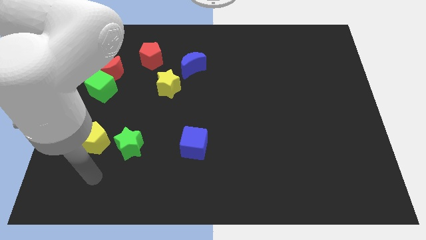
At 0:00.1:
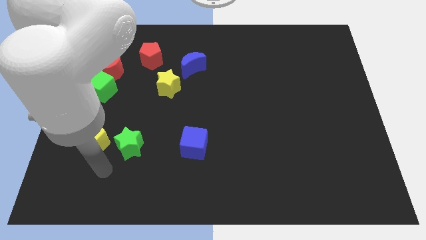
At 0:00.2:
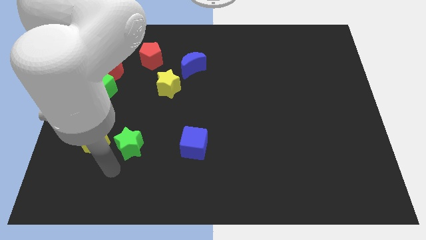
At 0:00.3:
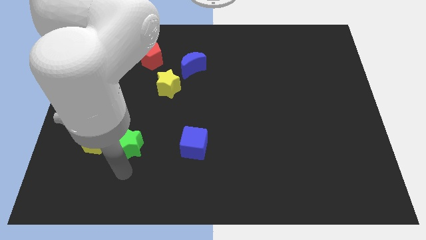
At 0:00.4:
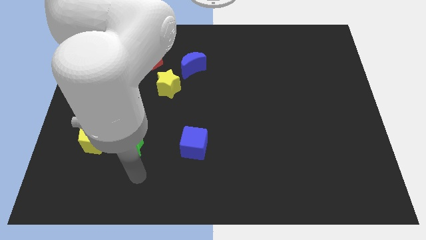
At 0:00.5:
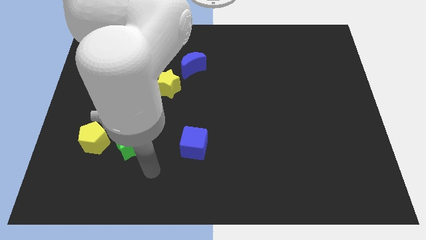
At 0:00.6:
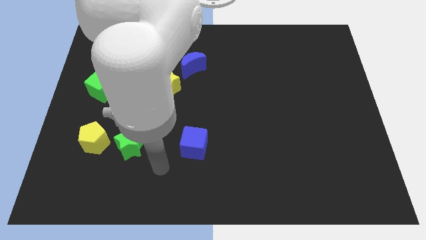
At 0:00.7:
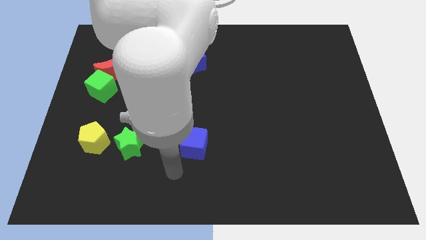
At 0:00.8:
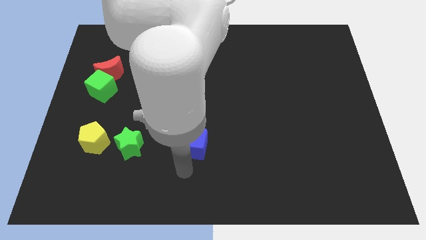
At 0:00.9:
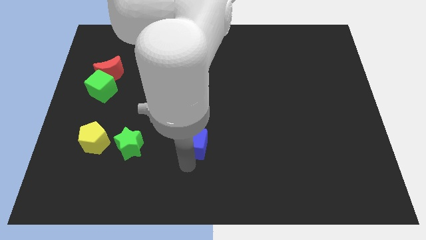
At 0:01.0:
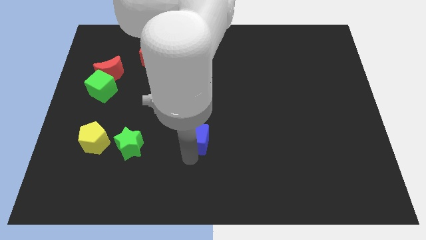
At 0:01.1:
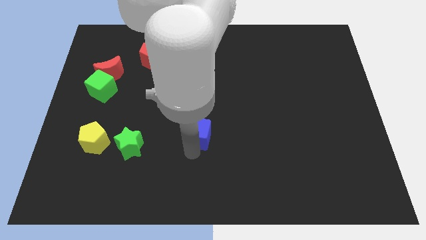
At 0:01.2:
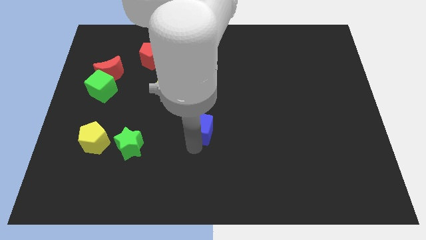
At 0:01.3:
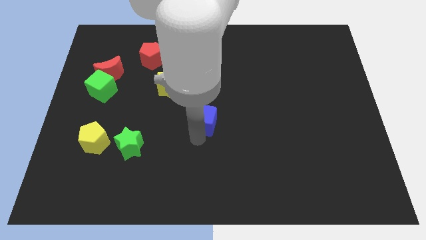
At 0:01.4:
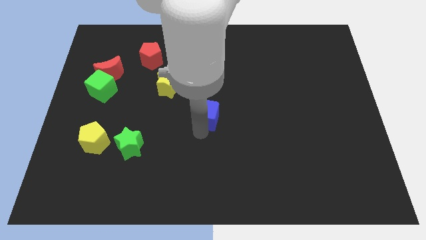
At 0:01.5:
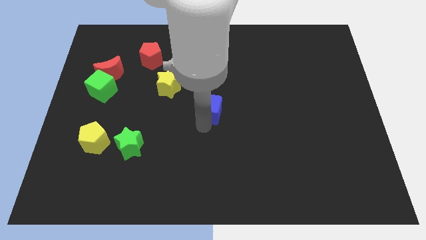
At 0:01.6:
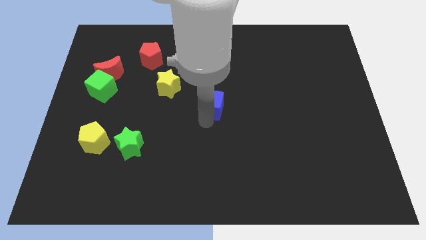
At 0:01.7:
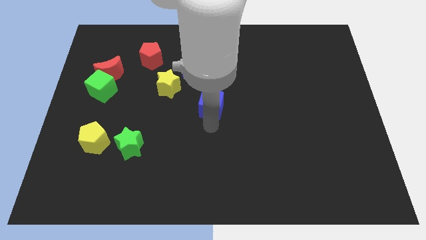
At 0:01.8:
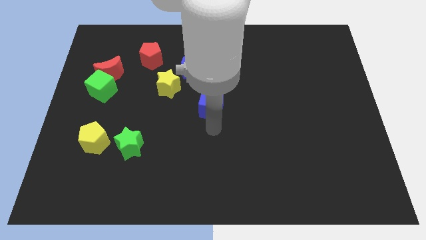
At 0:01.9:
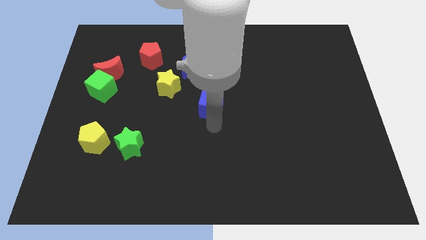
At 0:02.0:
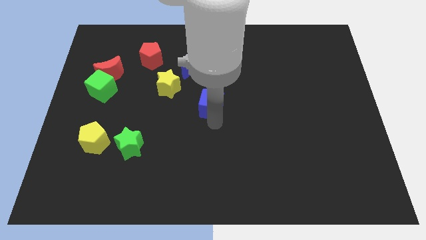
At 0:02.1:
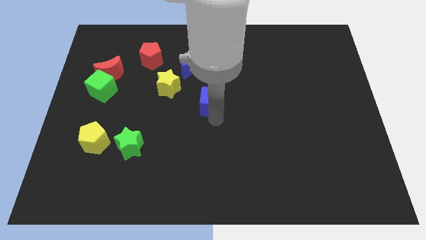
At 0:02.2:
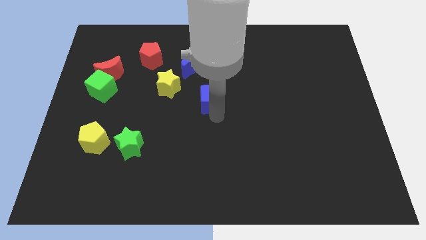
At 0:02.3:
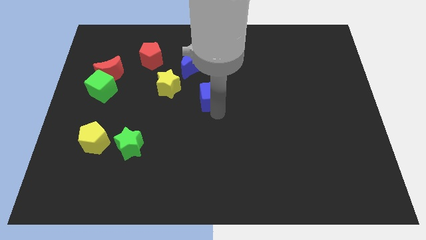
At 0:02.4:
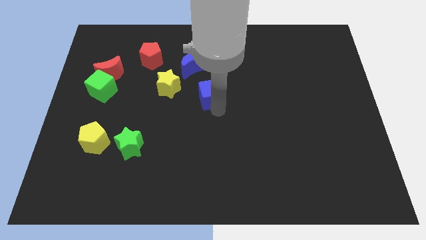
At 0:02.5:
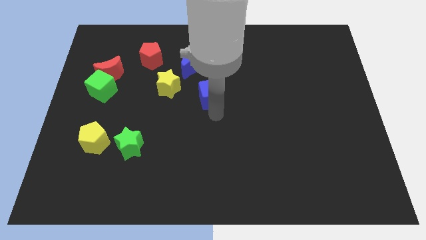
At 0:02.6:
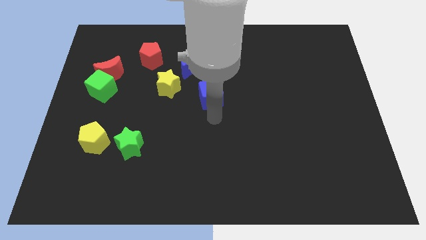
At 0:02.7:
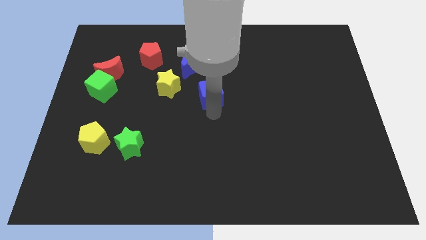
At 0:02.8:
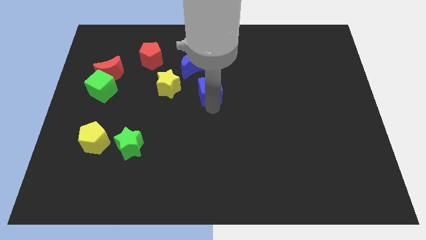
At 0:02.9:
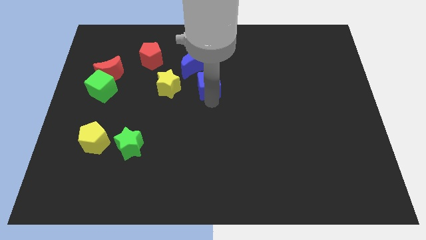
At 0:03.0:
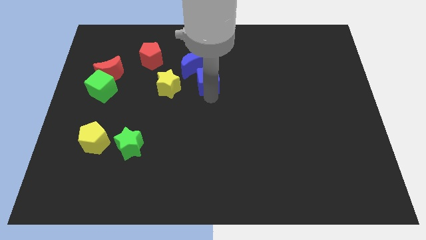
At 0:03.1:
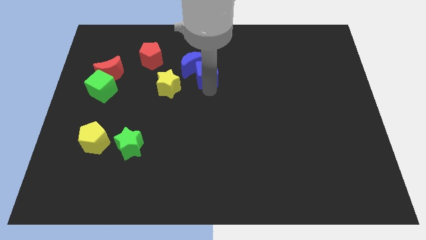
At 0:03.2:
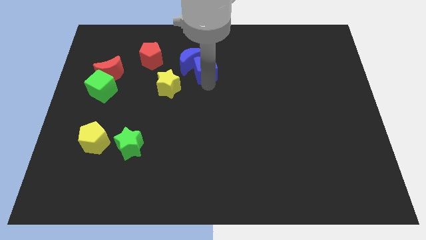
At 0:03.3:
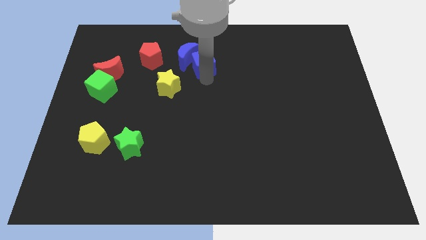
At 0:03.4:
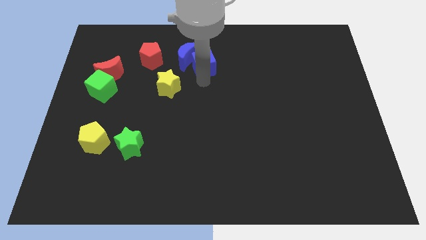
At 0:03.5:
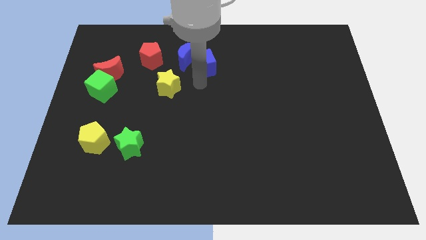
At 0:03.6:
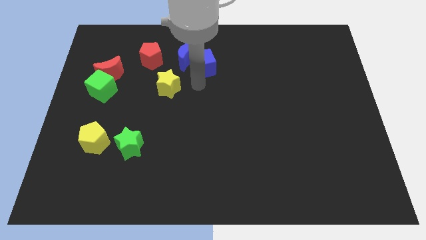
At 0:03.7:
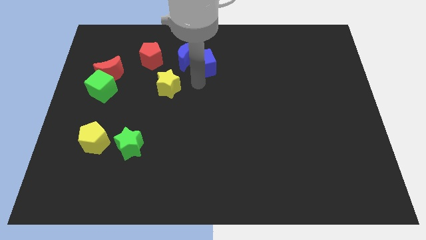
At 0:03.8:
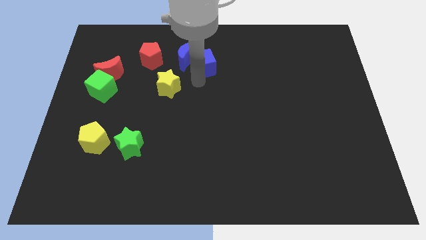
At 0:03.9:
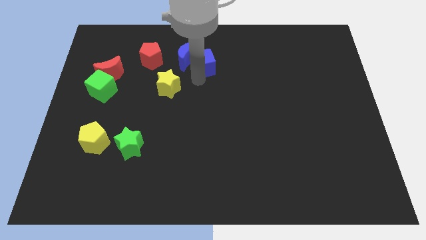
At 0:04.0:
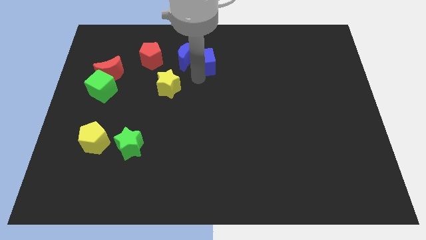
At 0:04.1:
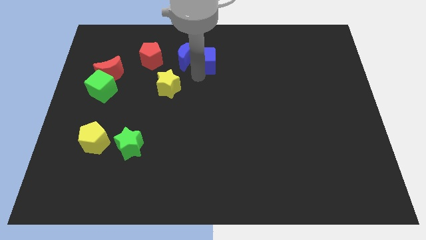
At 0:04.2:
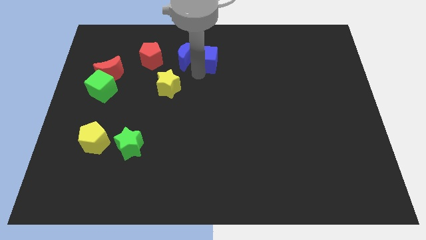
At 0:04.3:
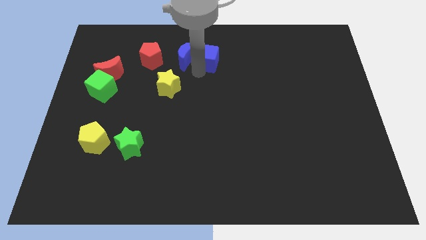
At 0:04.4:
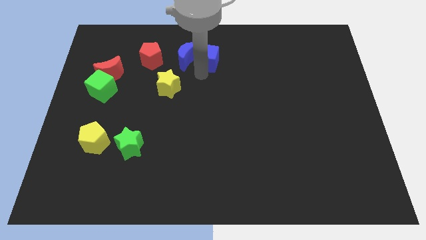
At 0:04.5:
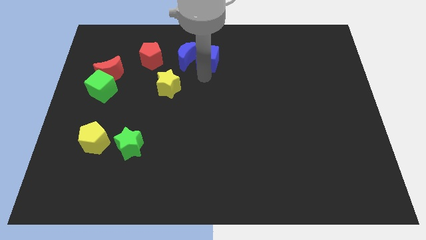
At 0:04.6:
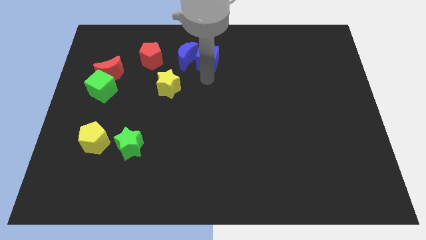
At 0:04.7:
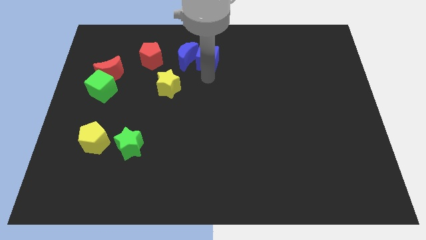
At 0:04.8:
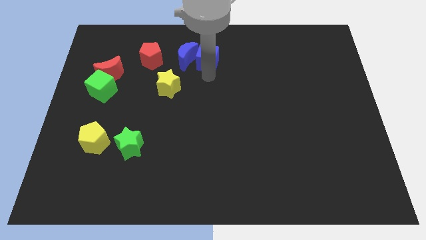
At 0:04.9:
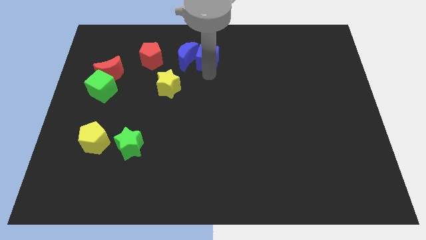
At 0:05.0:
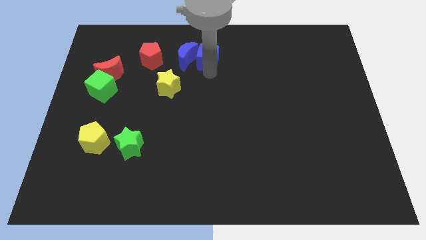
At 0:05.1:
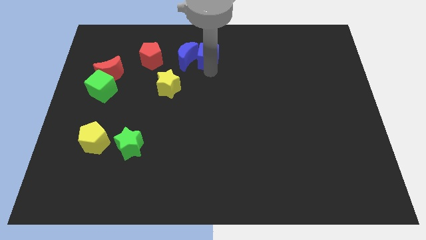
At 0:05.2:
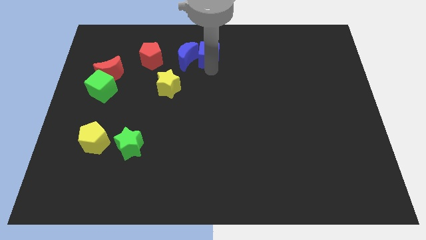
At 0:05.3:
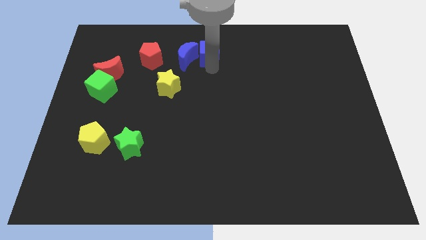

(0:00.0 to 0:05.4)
slide the blue cube to the top

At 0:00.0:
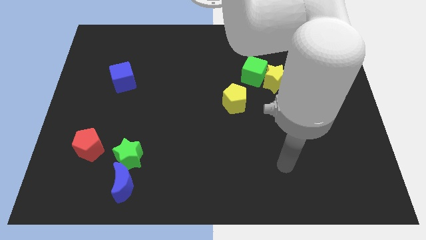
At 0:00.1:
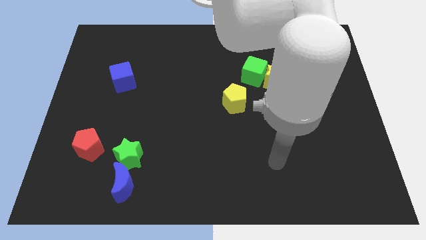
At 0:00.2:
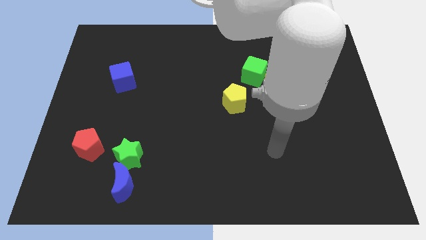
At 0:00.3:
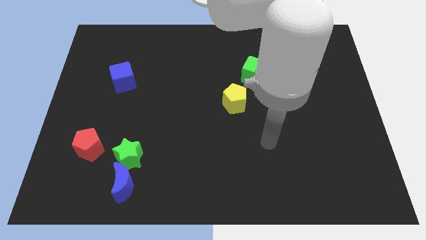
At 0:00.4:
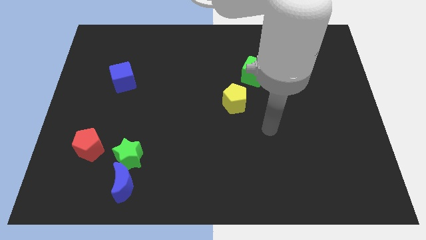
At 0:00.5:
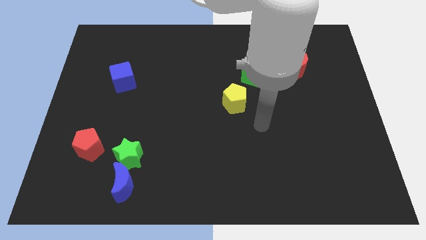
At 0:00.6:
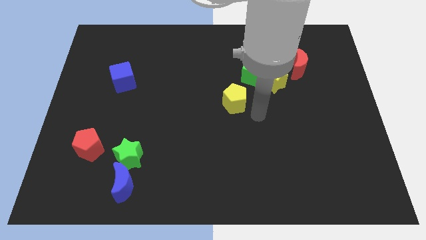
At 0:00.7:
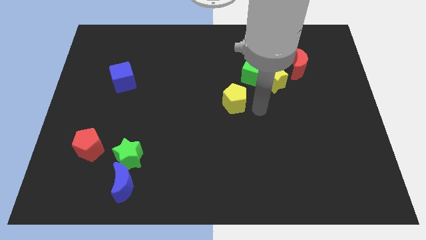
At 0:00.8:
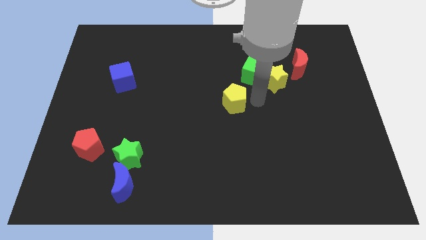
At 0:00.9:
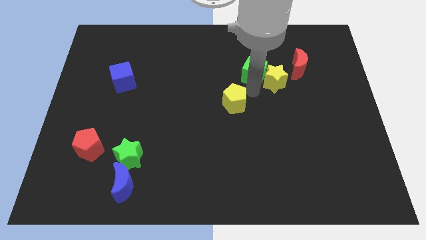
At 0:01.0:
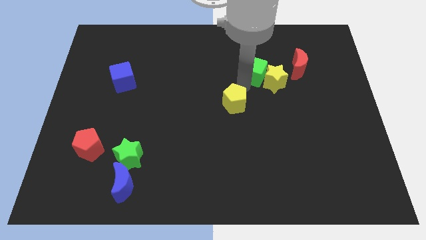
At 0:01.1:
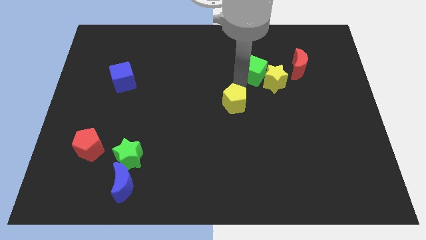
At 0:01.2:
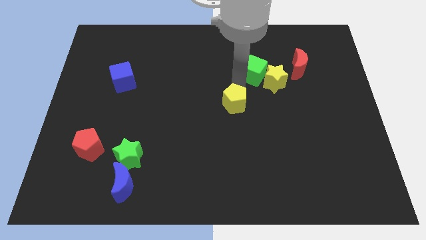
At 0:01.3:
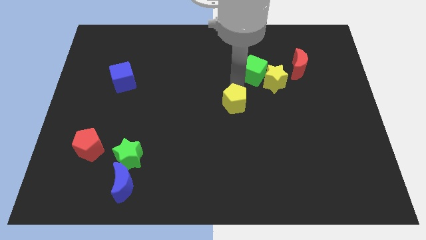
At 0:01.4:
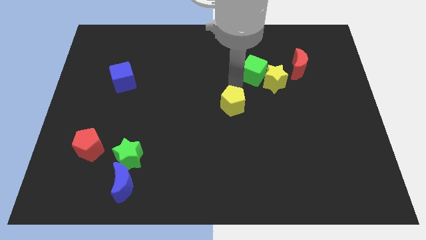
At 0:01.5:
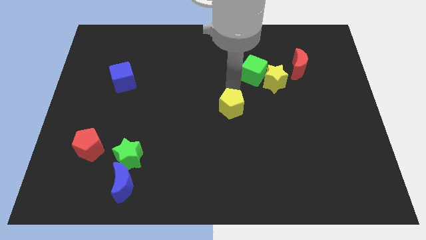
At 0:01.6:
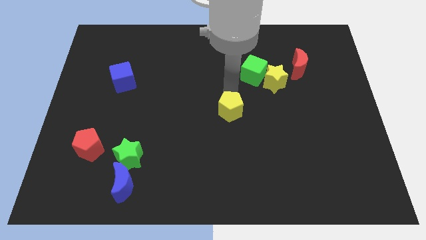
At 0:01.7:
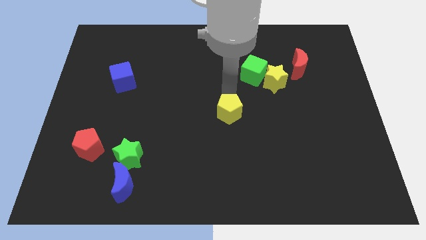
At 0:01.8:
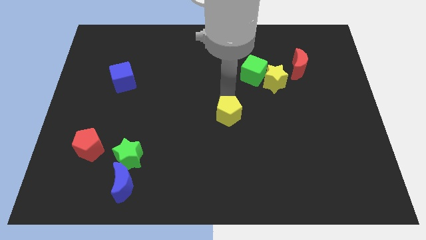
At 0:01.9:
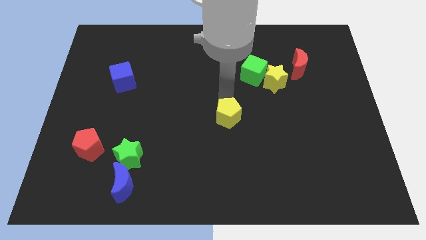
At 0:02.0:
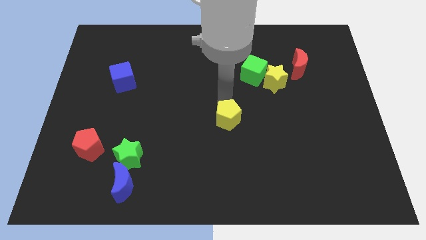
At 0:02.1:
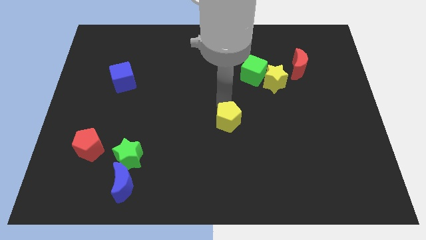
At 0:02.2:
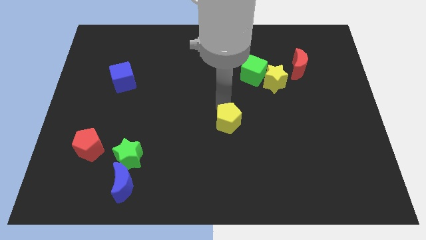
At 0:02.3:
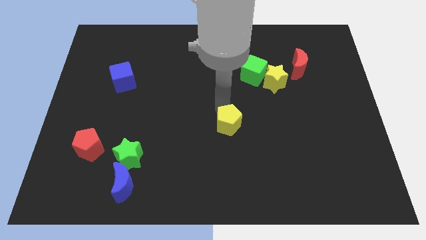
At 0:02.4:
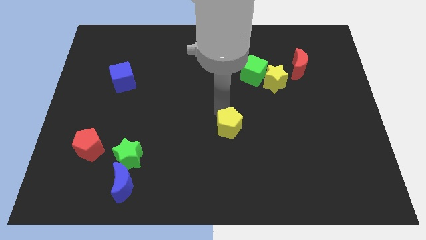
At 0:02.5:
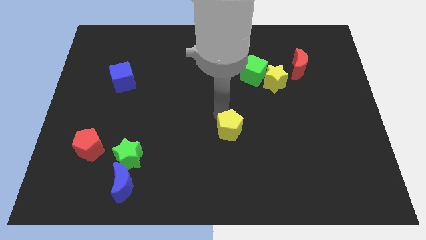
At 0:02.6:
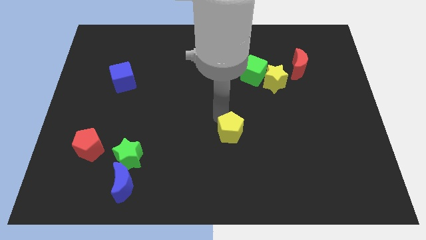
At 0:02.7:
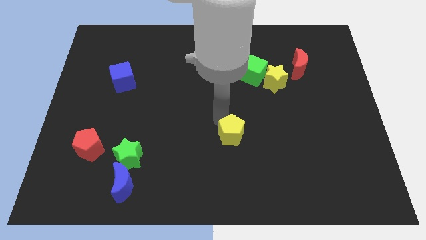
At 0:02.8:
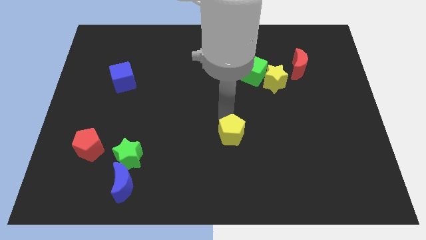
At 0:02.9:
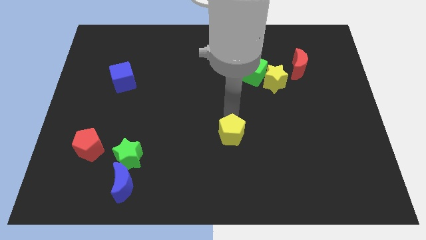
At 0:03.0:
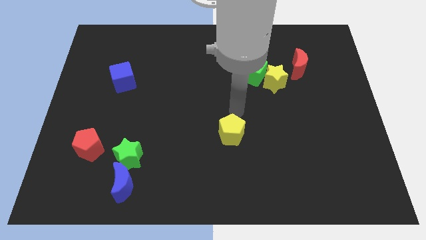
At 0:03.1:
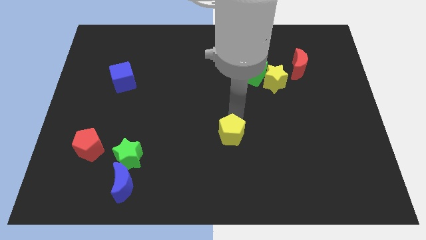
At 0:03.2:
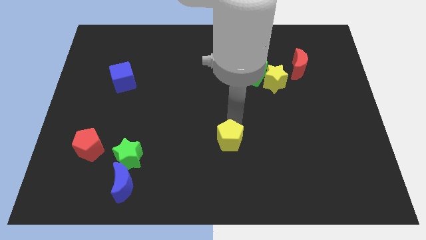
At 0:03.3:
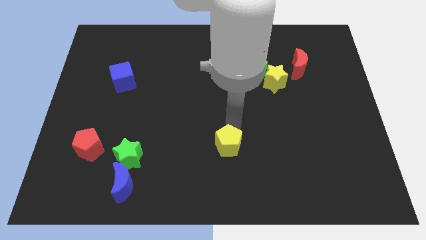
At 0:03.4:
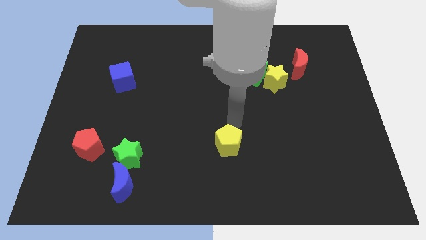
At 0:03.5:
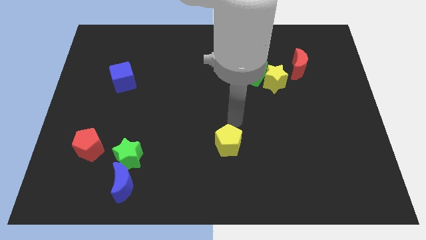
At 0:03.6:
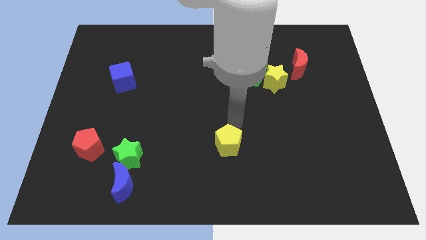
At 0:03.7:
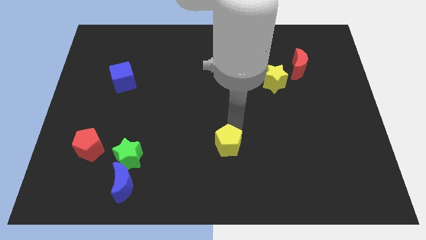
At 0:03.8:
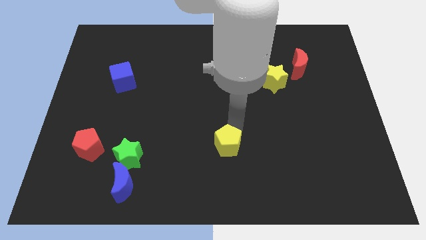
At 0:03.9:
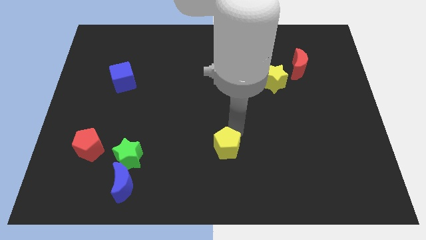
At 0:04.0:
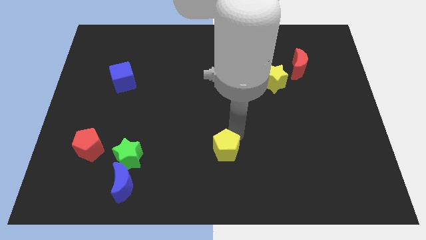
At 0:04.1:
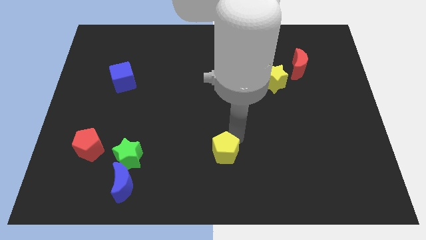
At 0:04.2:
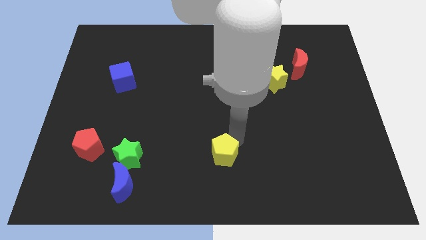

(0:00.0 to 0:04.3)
slide the yellow pentagon to the bottom side
